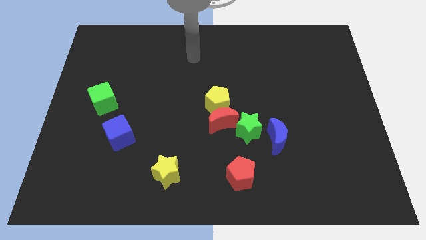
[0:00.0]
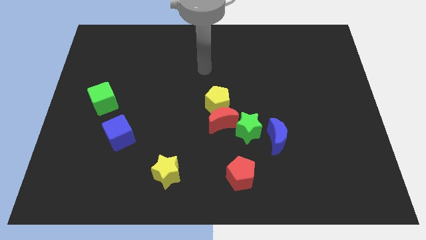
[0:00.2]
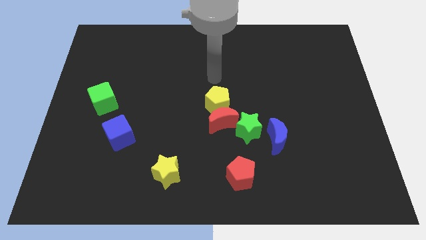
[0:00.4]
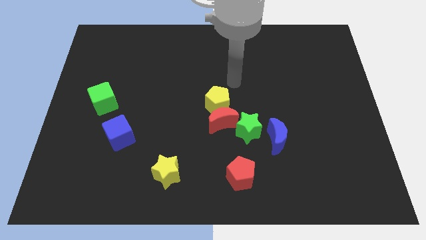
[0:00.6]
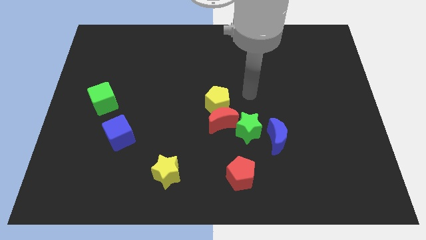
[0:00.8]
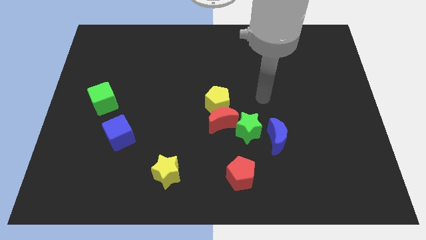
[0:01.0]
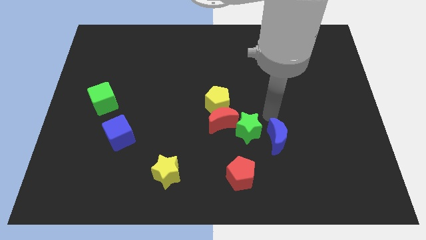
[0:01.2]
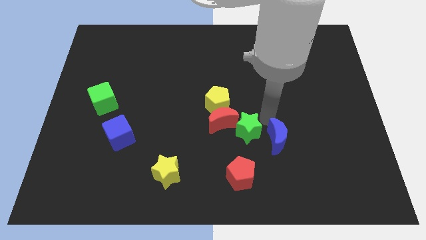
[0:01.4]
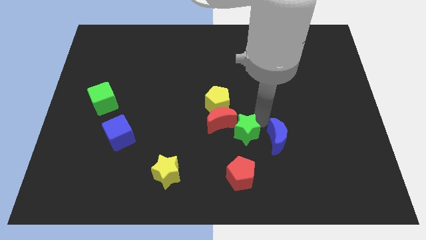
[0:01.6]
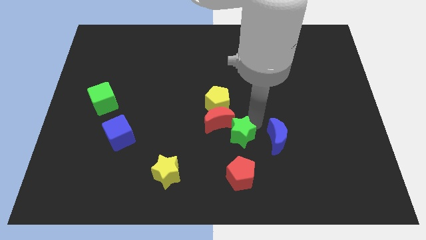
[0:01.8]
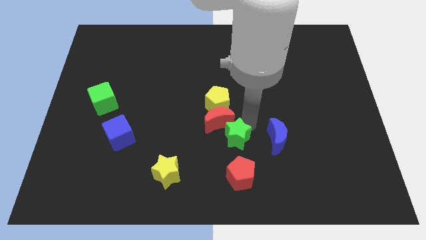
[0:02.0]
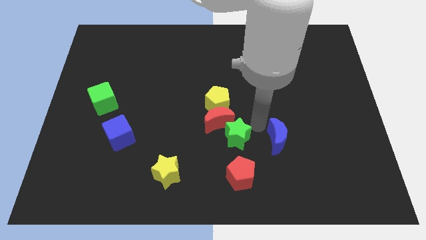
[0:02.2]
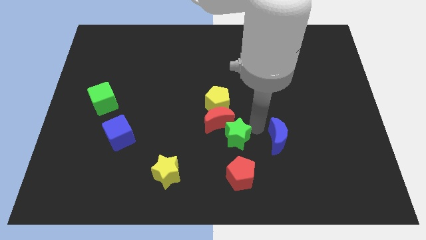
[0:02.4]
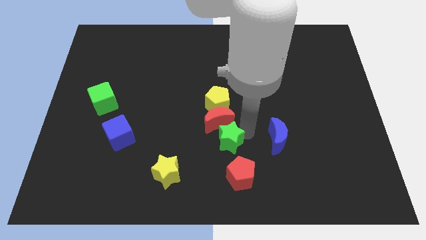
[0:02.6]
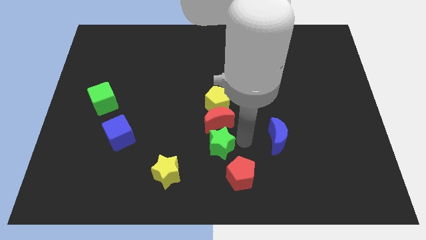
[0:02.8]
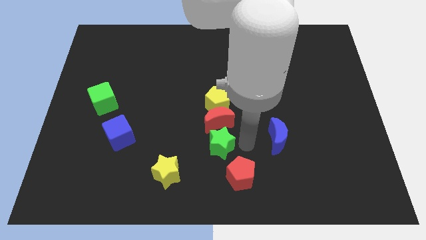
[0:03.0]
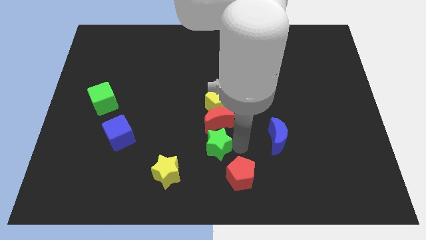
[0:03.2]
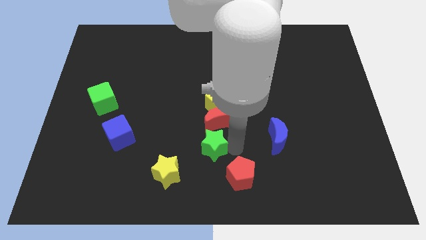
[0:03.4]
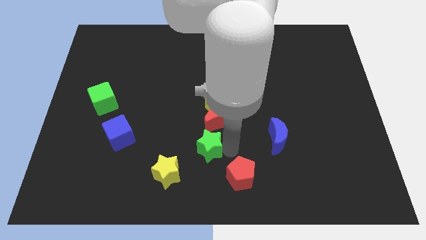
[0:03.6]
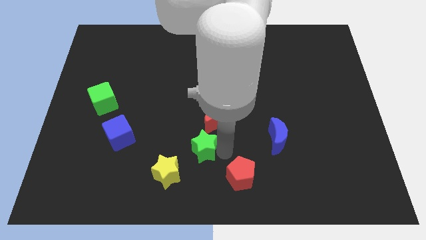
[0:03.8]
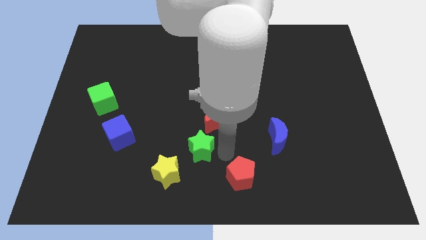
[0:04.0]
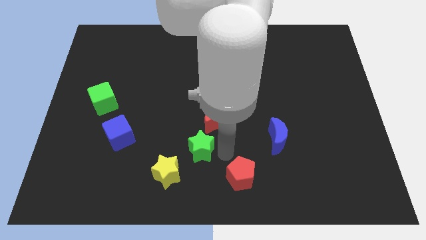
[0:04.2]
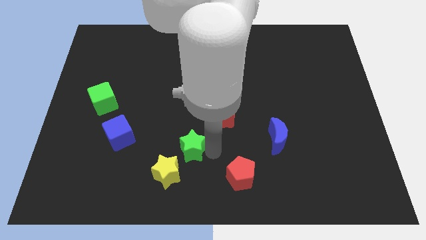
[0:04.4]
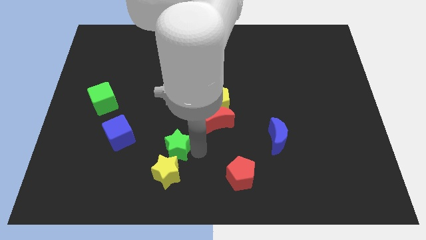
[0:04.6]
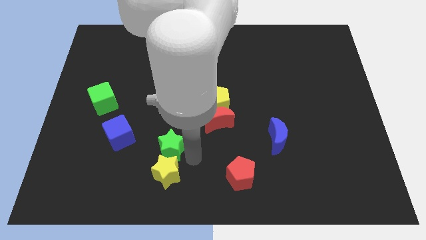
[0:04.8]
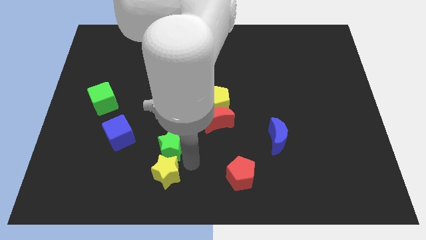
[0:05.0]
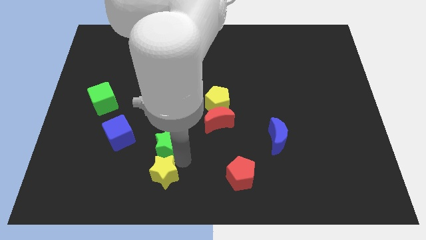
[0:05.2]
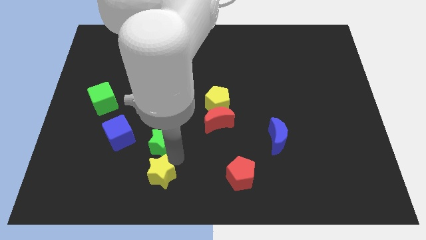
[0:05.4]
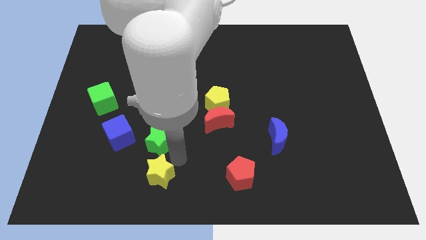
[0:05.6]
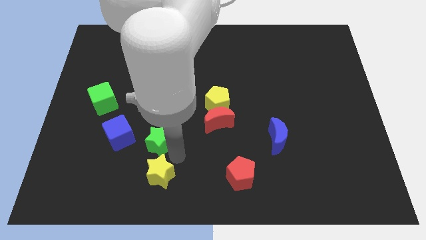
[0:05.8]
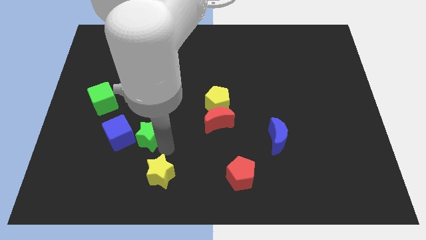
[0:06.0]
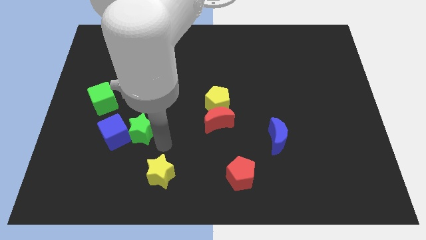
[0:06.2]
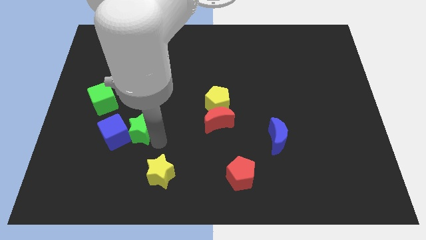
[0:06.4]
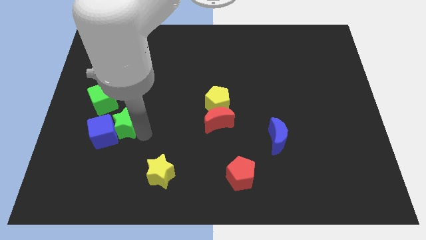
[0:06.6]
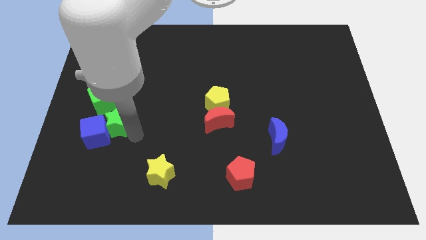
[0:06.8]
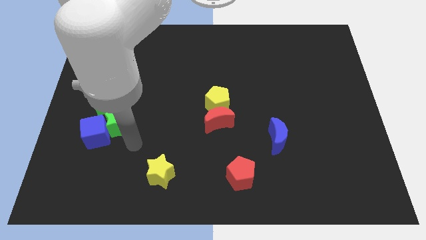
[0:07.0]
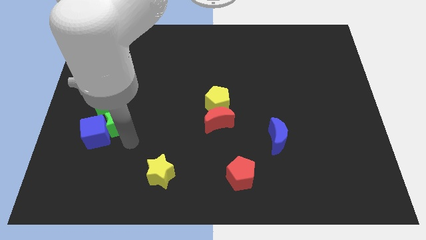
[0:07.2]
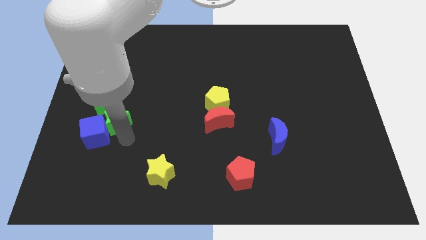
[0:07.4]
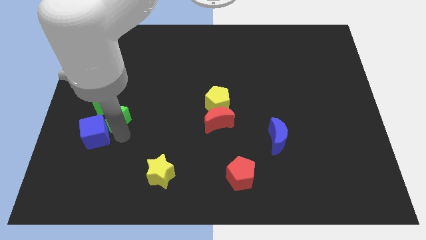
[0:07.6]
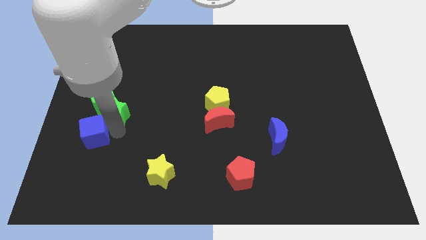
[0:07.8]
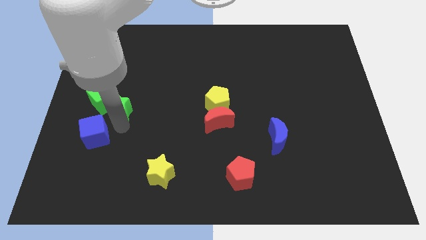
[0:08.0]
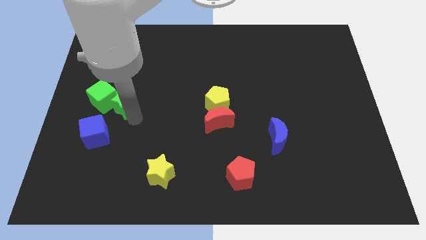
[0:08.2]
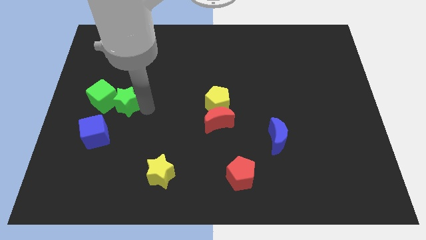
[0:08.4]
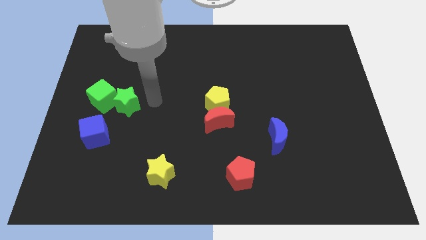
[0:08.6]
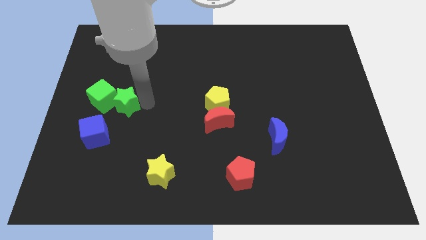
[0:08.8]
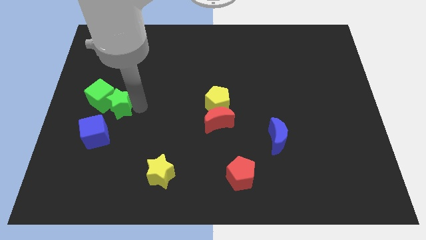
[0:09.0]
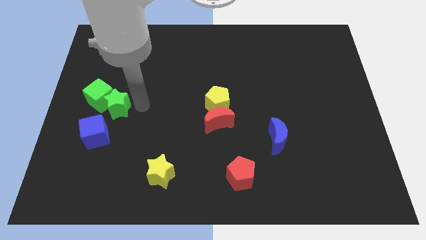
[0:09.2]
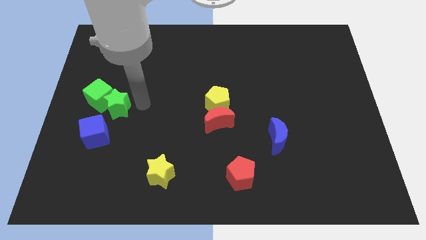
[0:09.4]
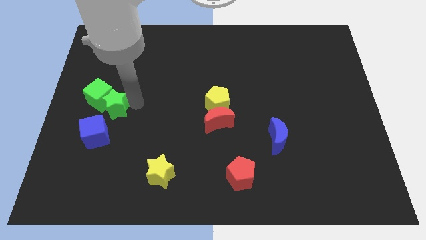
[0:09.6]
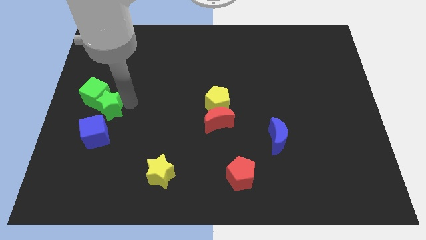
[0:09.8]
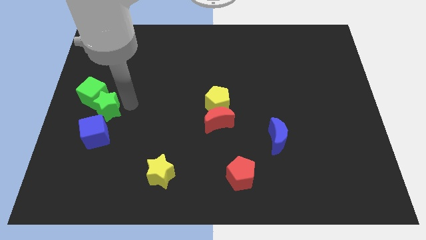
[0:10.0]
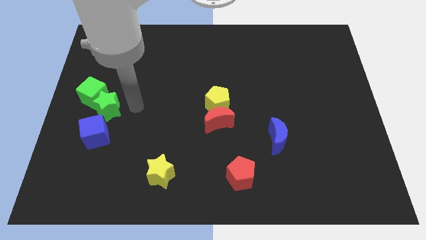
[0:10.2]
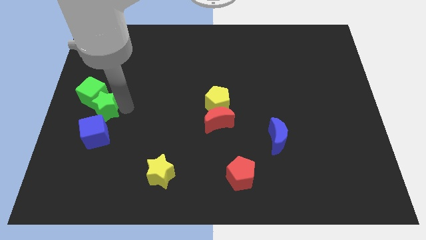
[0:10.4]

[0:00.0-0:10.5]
slide the green star to the center left

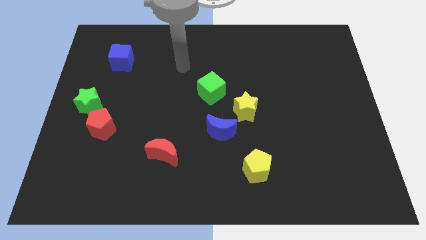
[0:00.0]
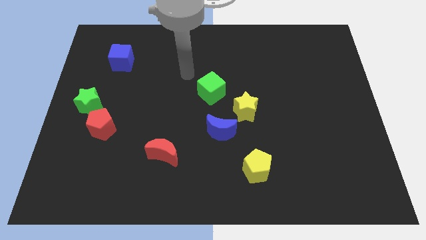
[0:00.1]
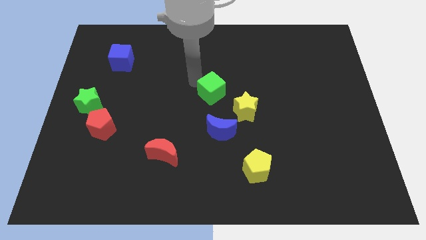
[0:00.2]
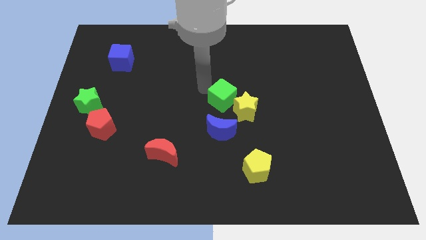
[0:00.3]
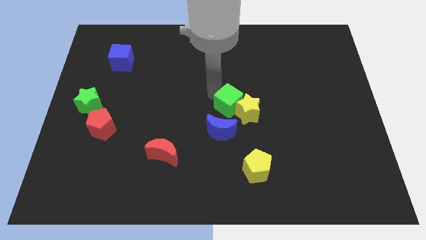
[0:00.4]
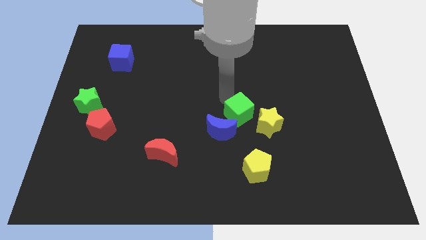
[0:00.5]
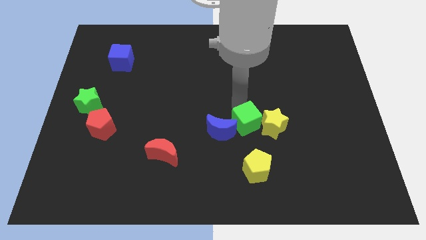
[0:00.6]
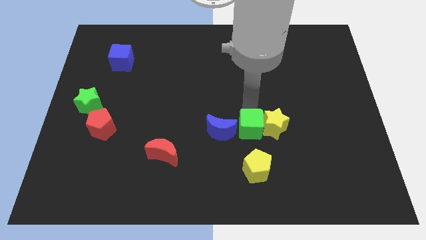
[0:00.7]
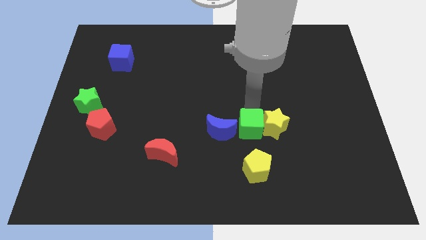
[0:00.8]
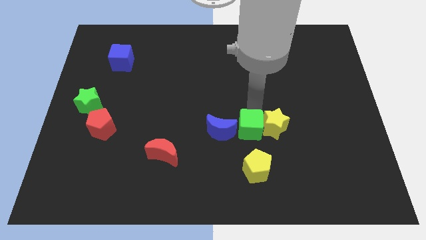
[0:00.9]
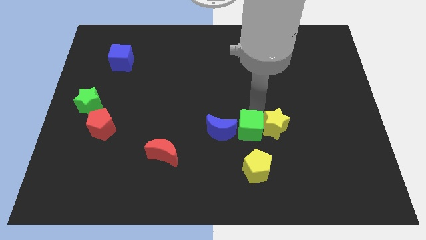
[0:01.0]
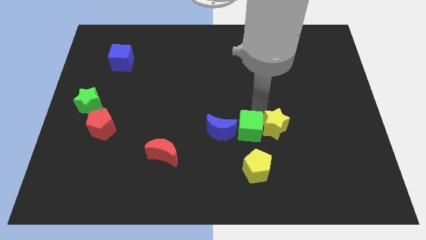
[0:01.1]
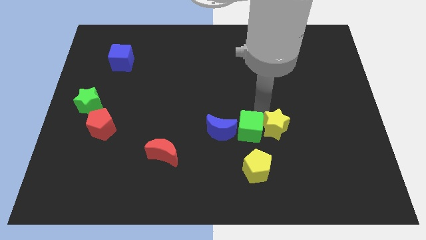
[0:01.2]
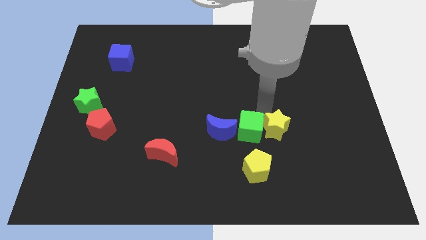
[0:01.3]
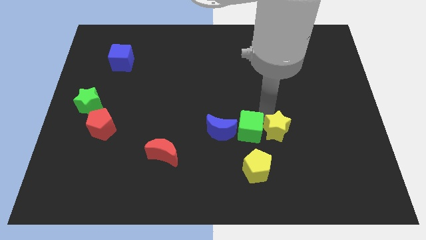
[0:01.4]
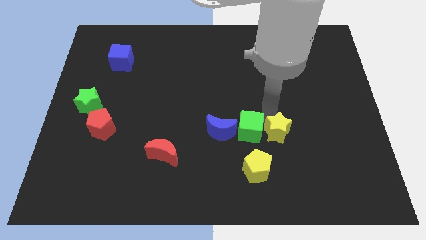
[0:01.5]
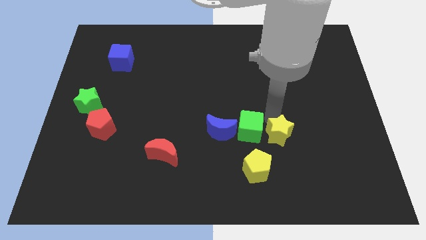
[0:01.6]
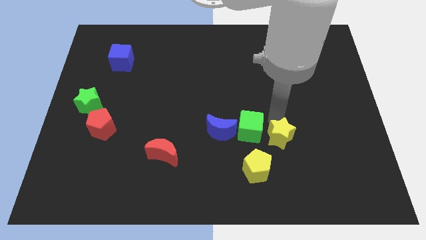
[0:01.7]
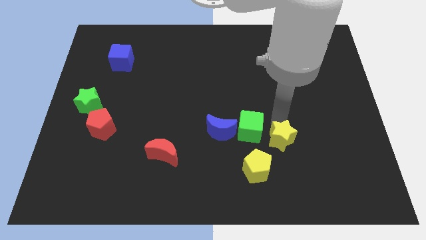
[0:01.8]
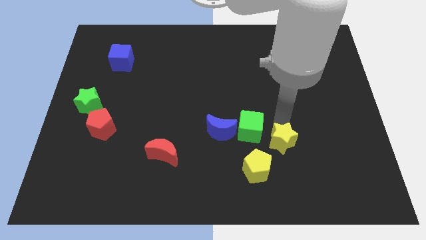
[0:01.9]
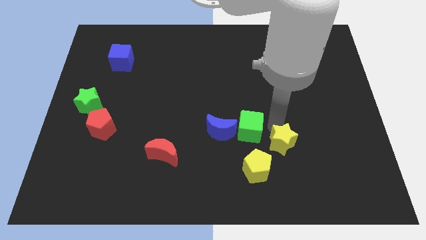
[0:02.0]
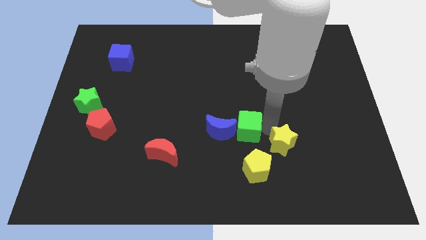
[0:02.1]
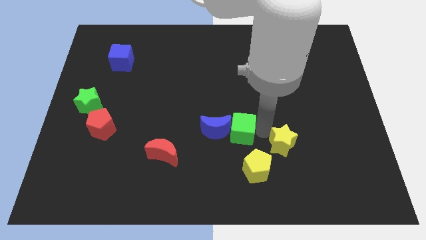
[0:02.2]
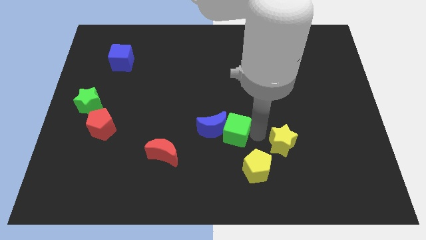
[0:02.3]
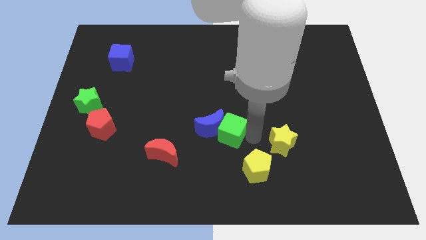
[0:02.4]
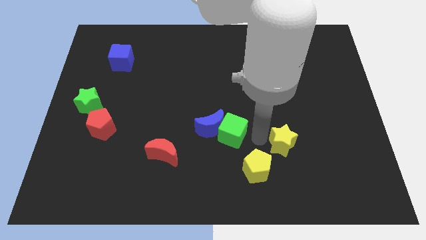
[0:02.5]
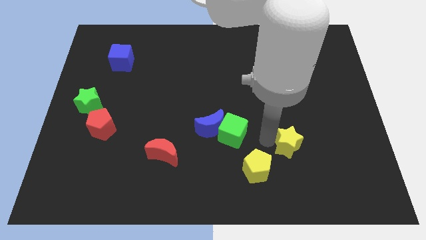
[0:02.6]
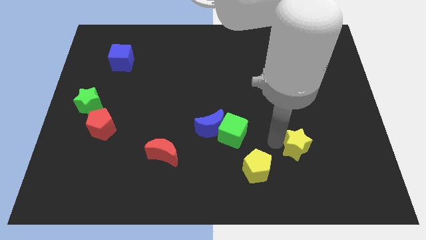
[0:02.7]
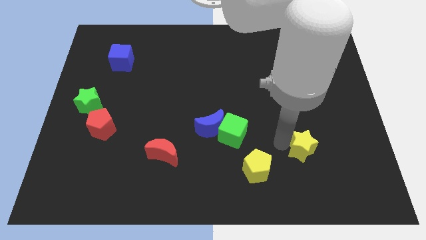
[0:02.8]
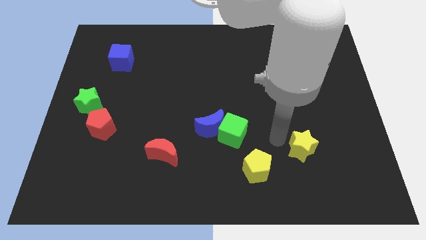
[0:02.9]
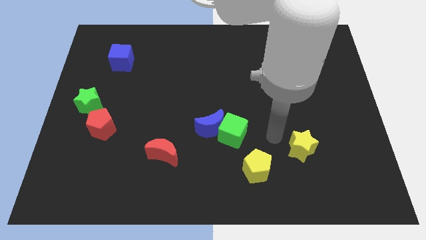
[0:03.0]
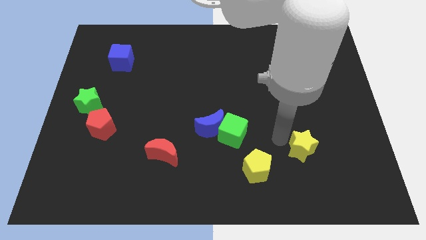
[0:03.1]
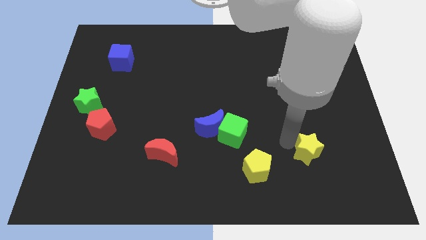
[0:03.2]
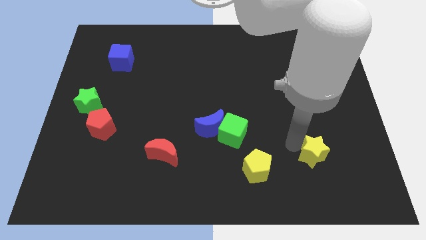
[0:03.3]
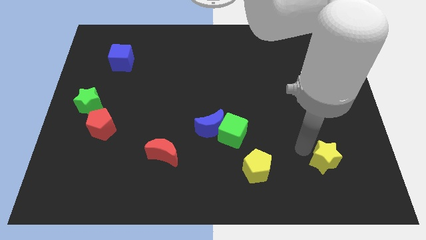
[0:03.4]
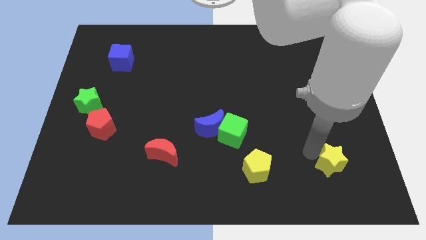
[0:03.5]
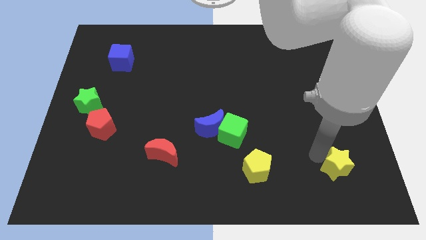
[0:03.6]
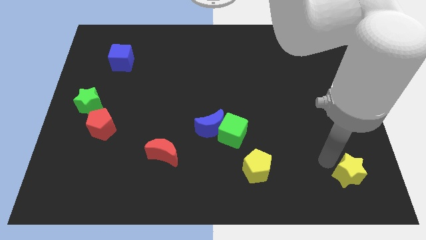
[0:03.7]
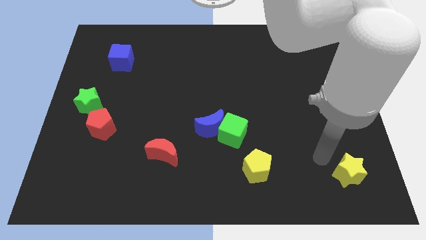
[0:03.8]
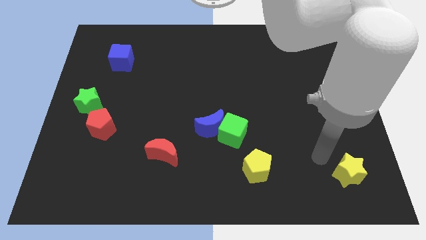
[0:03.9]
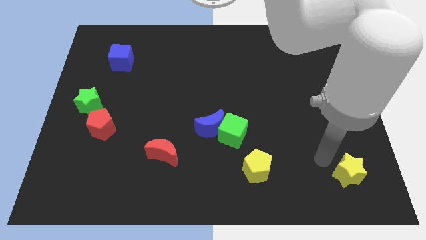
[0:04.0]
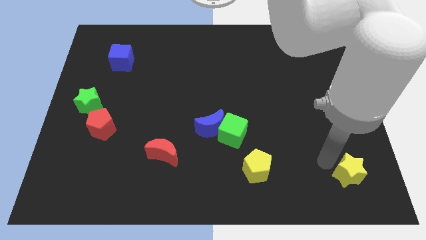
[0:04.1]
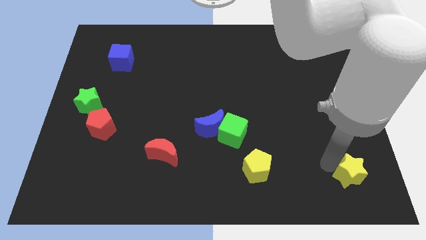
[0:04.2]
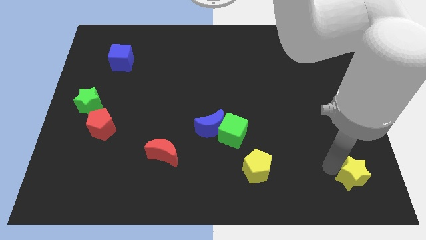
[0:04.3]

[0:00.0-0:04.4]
put the yellow star to the lower right corner
